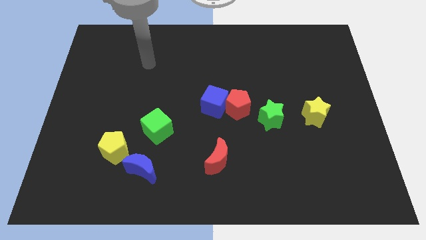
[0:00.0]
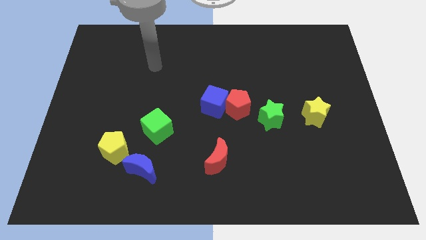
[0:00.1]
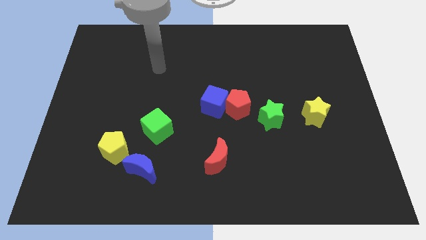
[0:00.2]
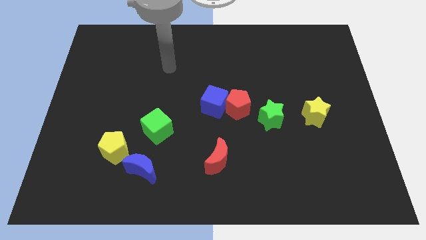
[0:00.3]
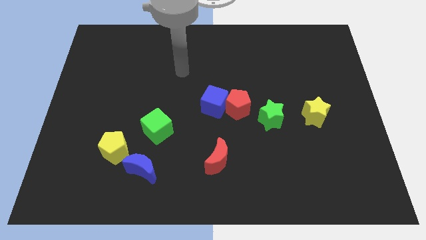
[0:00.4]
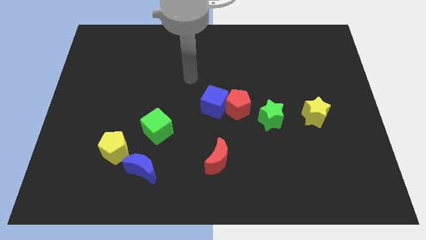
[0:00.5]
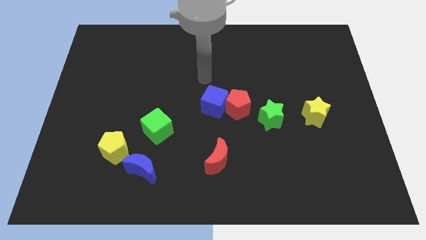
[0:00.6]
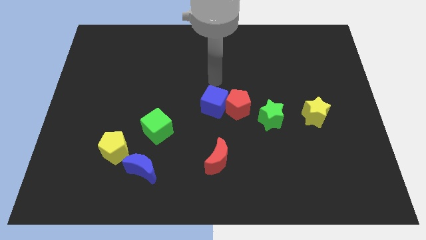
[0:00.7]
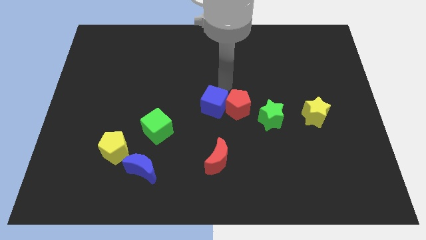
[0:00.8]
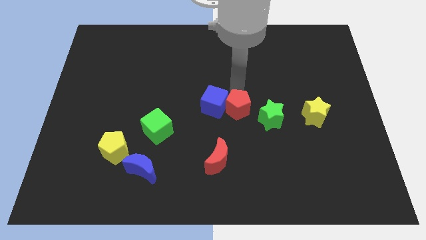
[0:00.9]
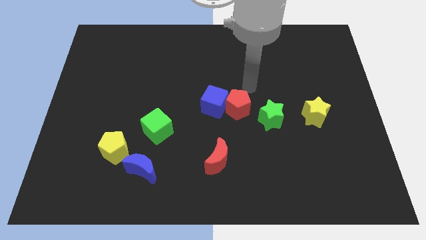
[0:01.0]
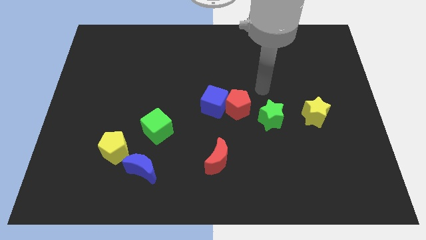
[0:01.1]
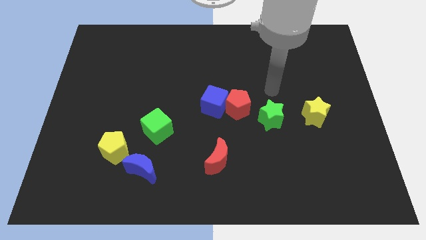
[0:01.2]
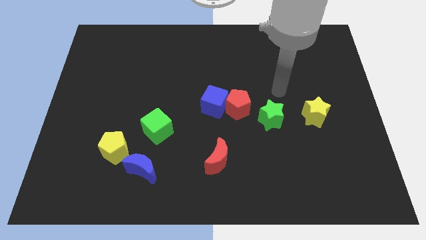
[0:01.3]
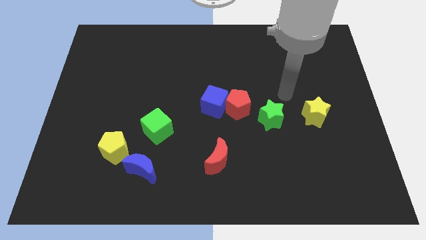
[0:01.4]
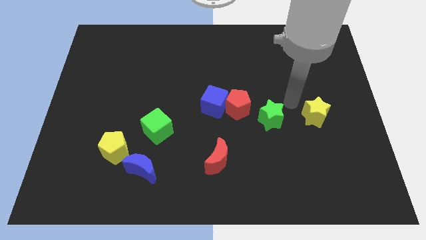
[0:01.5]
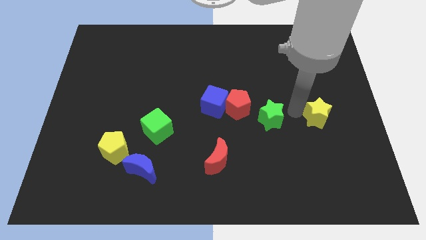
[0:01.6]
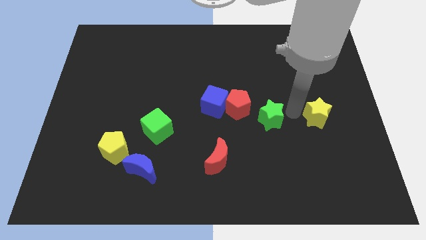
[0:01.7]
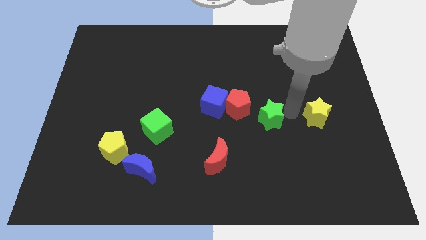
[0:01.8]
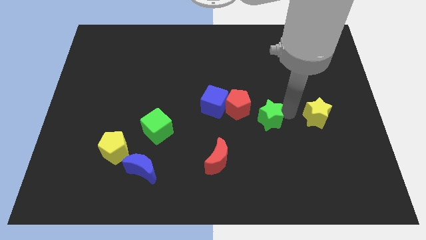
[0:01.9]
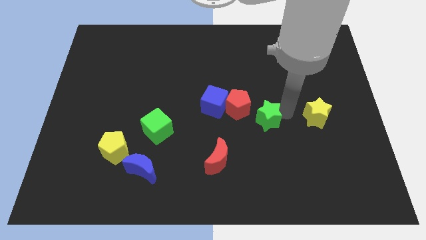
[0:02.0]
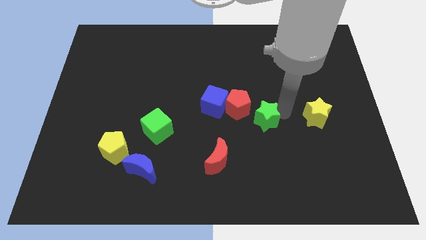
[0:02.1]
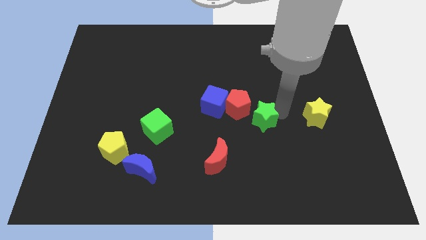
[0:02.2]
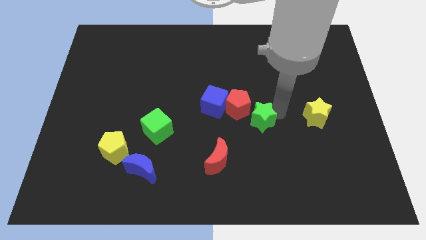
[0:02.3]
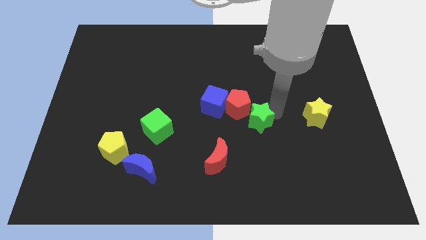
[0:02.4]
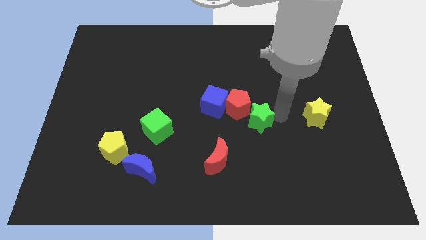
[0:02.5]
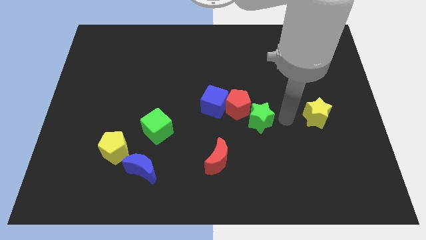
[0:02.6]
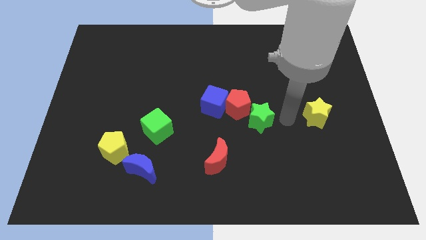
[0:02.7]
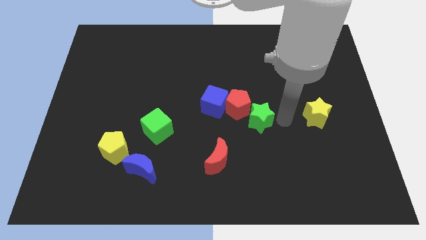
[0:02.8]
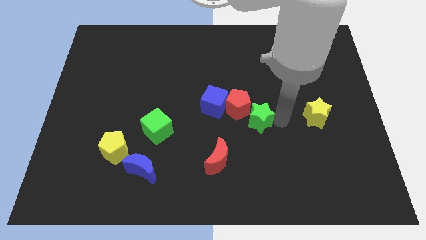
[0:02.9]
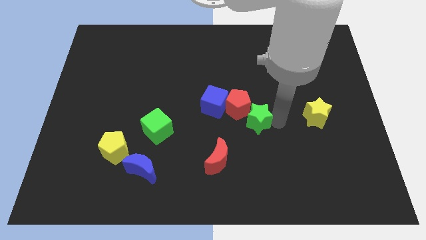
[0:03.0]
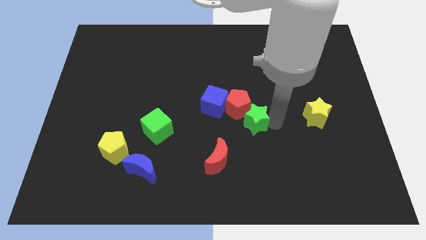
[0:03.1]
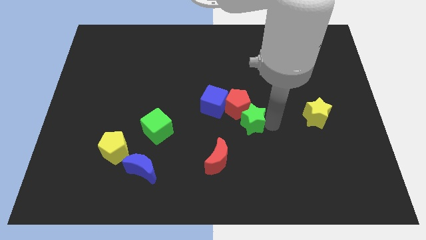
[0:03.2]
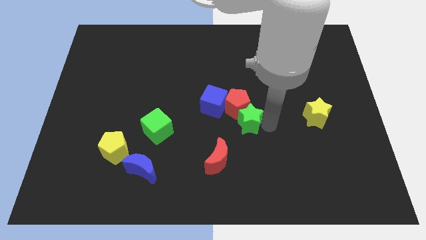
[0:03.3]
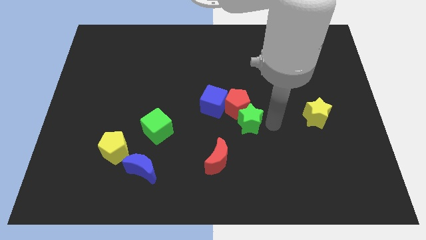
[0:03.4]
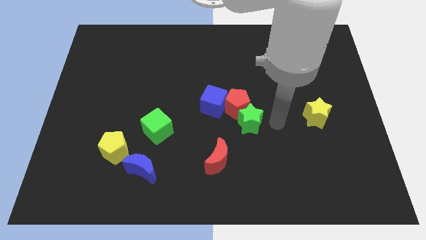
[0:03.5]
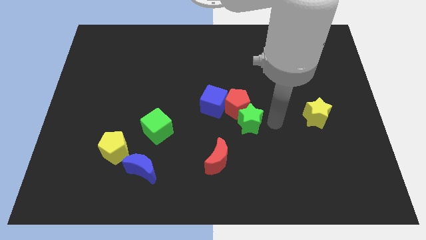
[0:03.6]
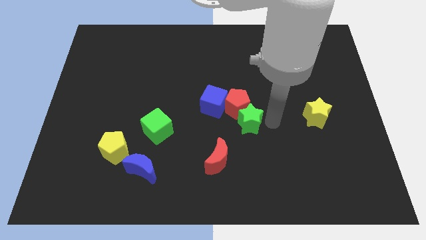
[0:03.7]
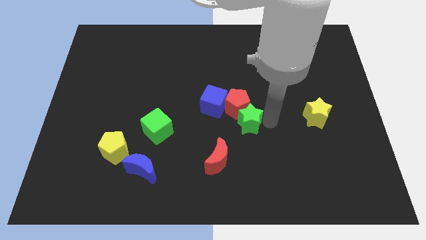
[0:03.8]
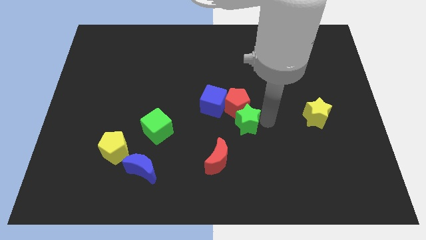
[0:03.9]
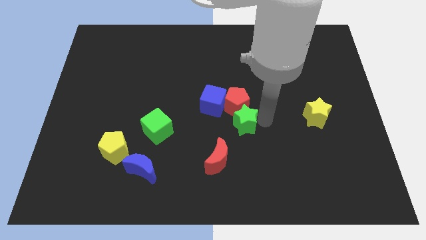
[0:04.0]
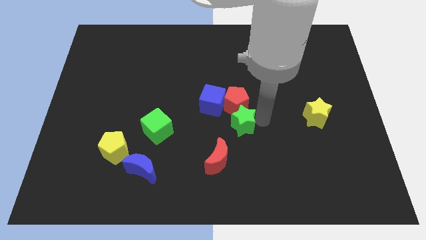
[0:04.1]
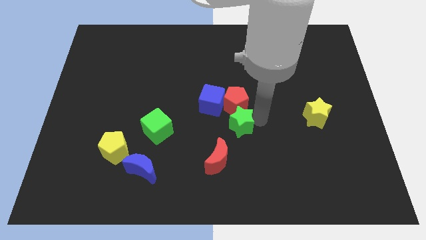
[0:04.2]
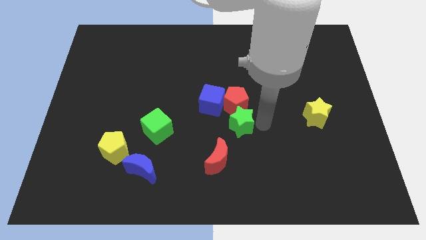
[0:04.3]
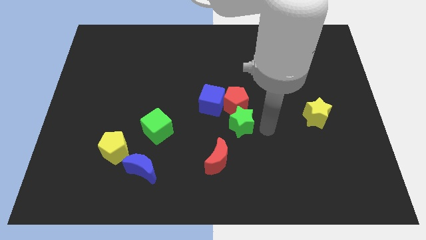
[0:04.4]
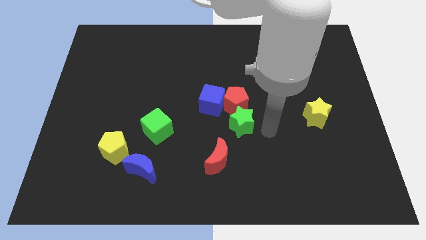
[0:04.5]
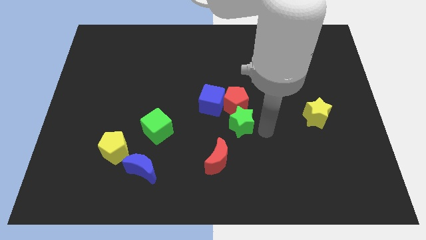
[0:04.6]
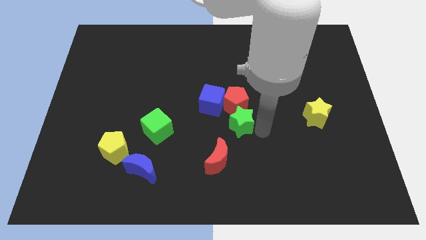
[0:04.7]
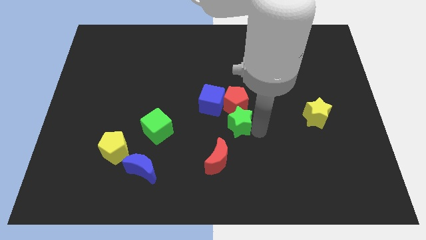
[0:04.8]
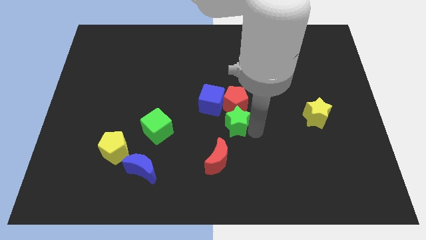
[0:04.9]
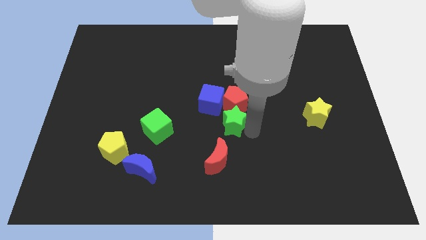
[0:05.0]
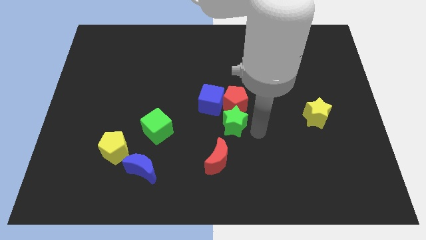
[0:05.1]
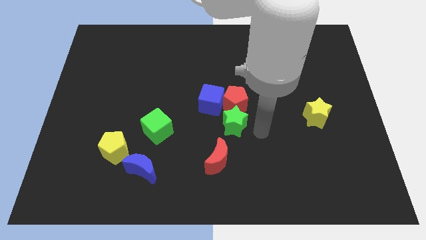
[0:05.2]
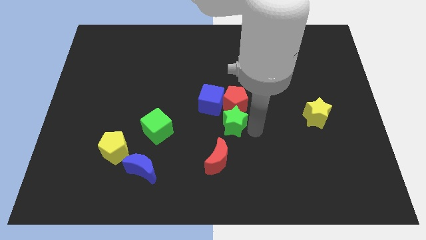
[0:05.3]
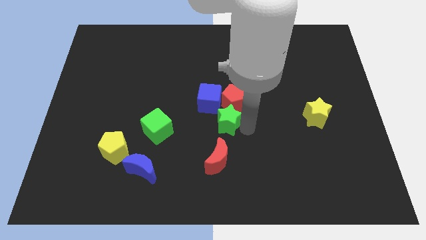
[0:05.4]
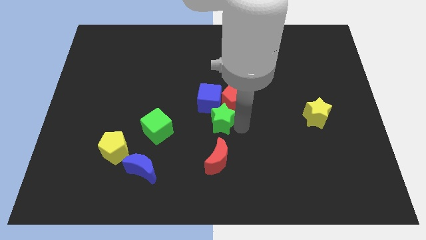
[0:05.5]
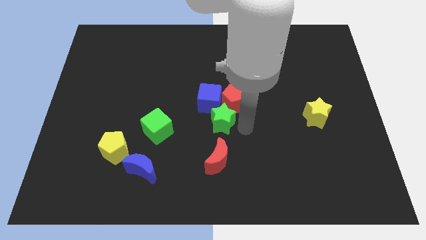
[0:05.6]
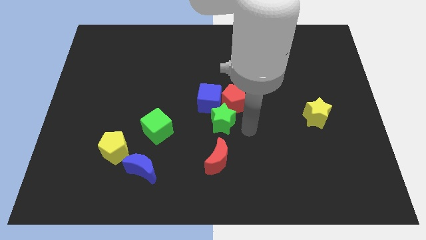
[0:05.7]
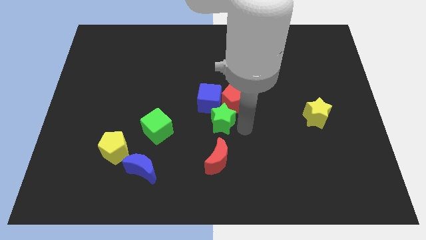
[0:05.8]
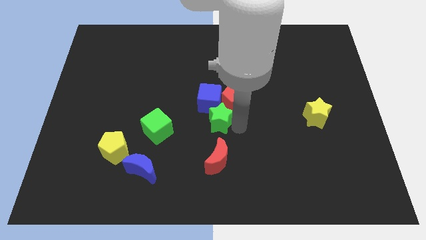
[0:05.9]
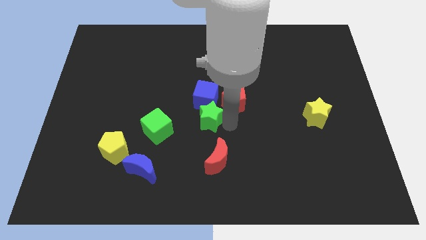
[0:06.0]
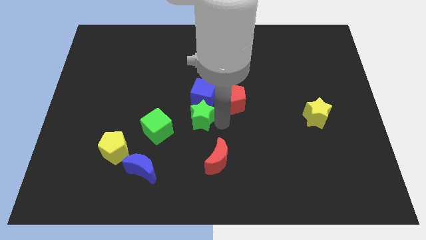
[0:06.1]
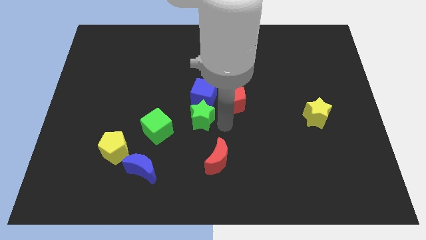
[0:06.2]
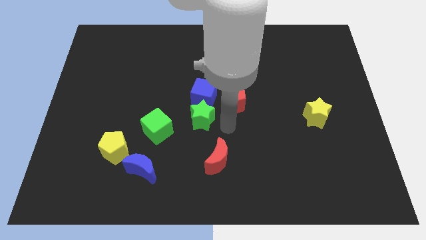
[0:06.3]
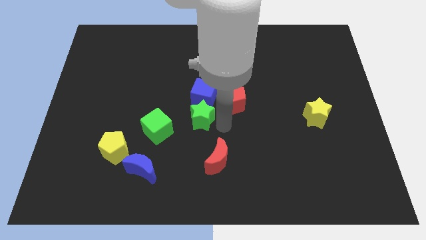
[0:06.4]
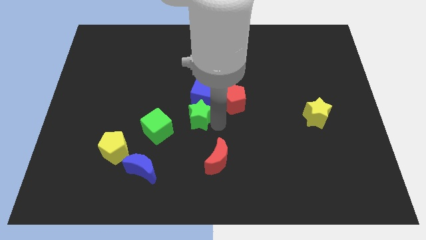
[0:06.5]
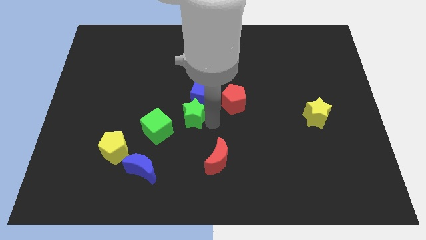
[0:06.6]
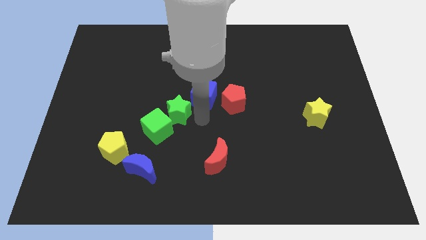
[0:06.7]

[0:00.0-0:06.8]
push the green star left

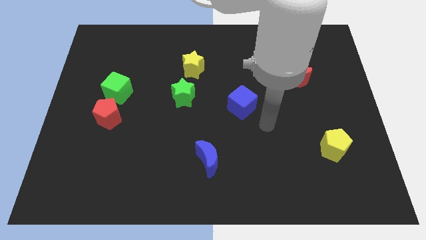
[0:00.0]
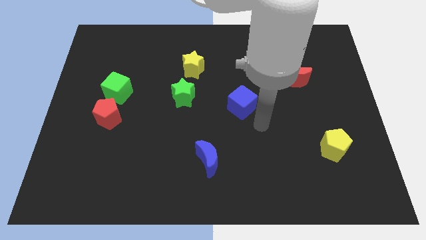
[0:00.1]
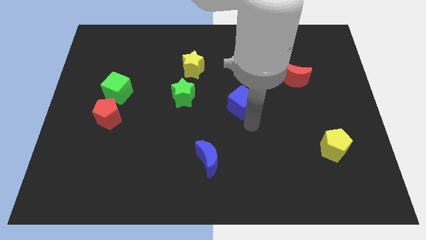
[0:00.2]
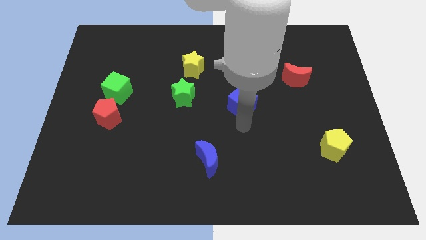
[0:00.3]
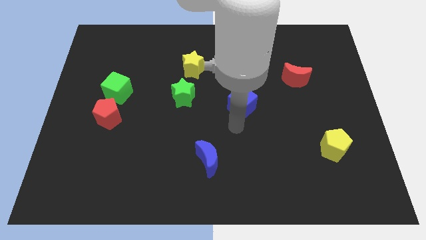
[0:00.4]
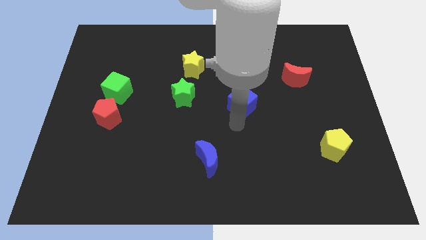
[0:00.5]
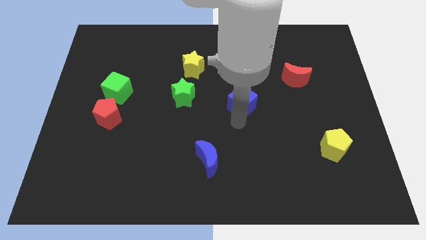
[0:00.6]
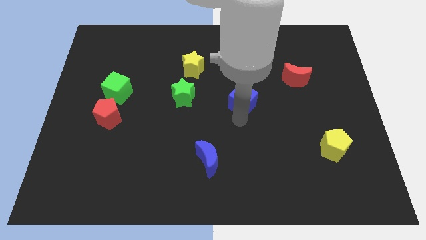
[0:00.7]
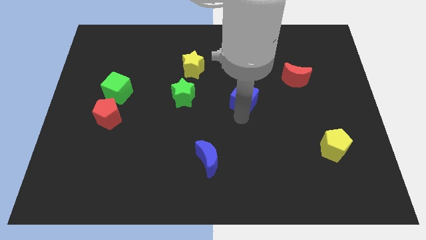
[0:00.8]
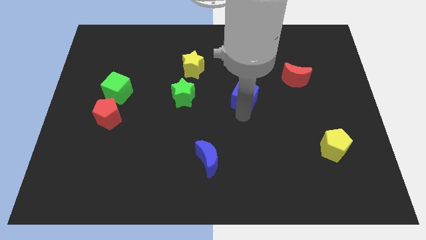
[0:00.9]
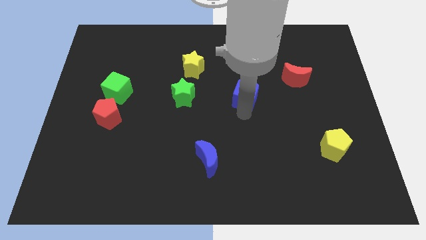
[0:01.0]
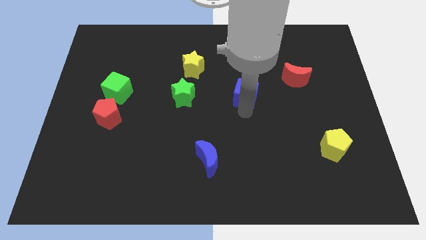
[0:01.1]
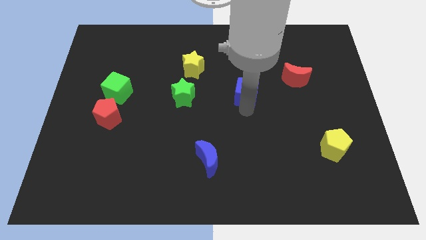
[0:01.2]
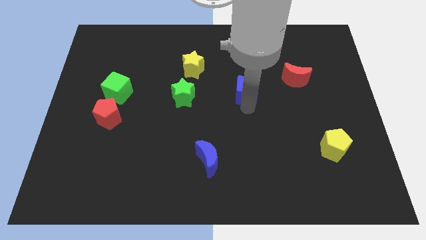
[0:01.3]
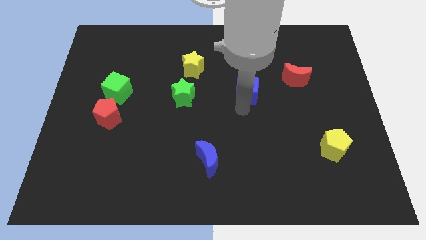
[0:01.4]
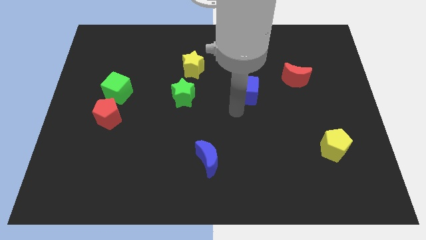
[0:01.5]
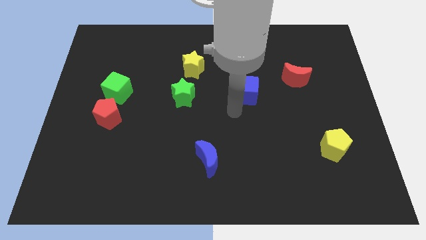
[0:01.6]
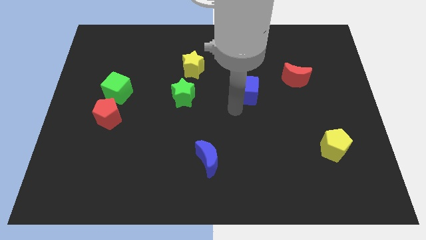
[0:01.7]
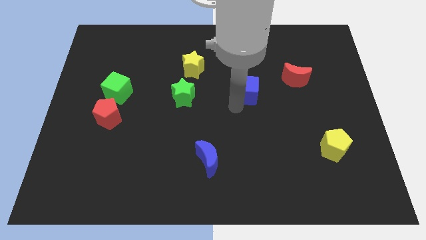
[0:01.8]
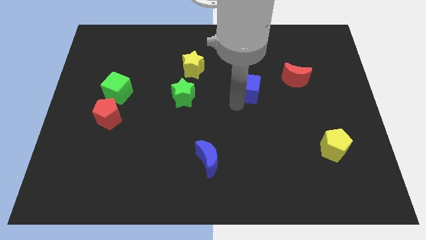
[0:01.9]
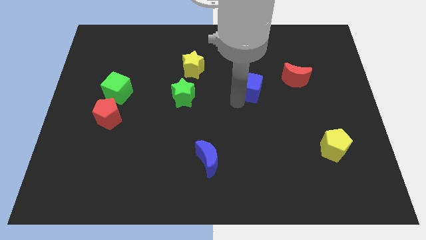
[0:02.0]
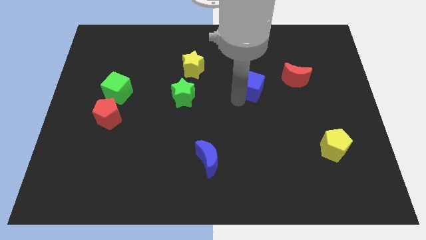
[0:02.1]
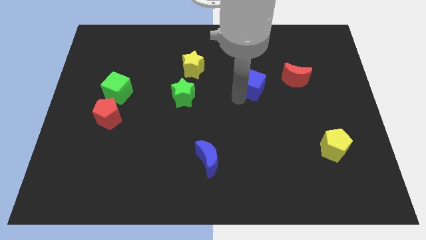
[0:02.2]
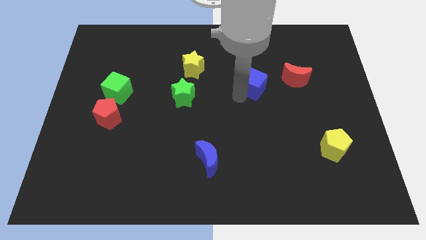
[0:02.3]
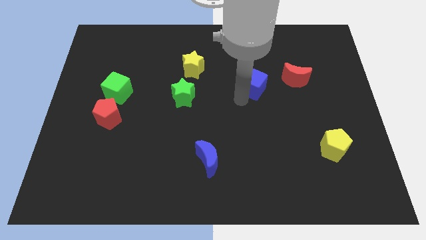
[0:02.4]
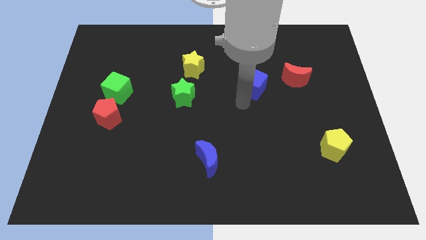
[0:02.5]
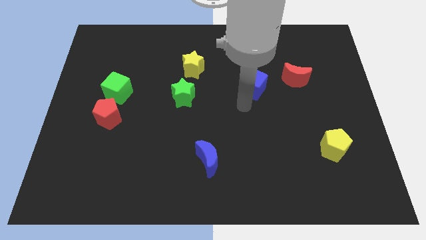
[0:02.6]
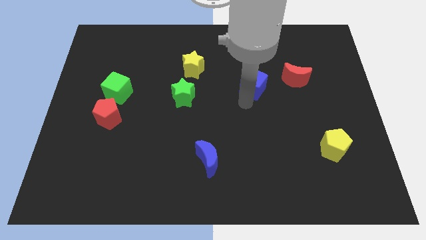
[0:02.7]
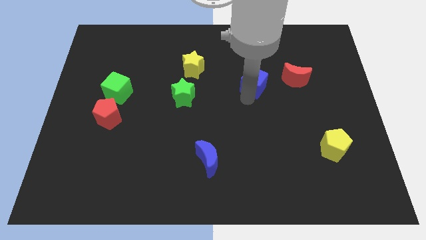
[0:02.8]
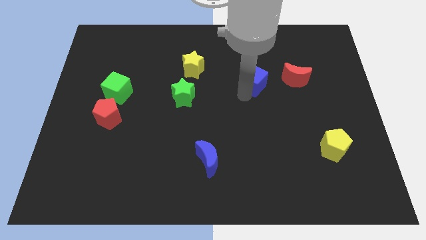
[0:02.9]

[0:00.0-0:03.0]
slide the blue cube upwards and right a little
